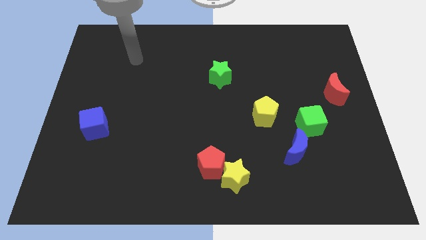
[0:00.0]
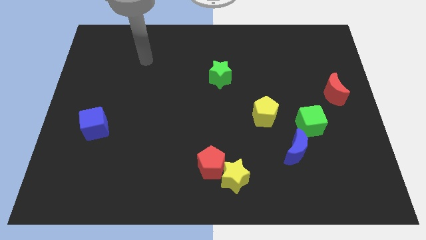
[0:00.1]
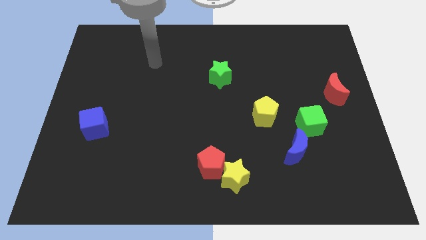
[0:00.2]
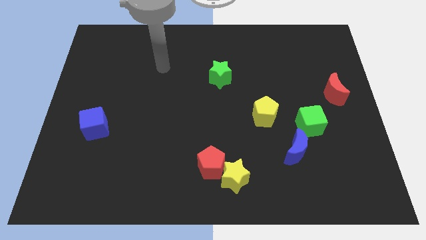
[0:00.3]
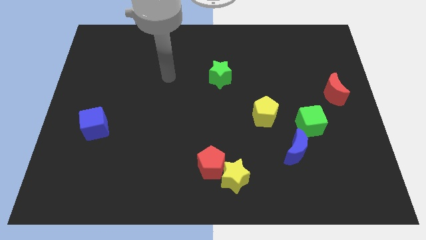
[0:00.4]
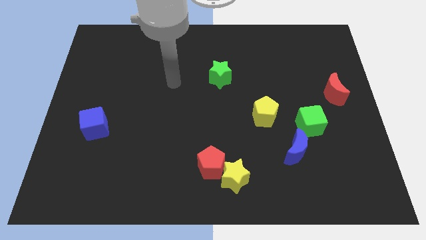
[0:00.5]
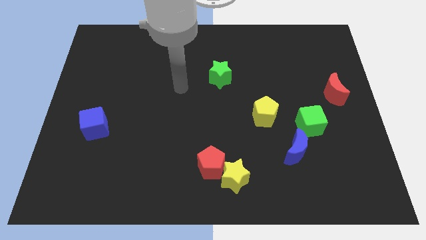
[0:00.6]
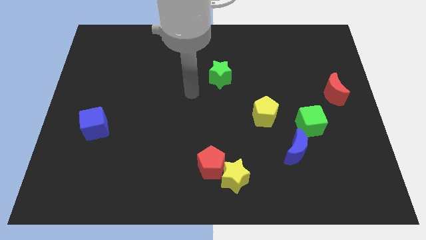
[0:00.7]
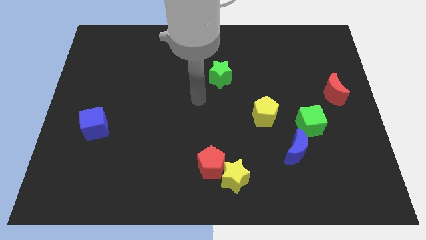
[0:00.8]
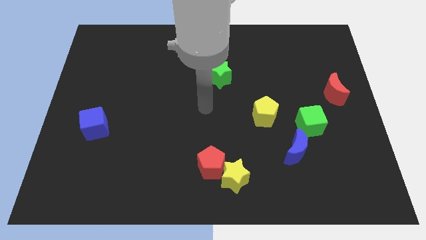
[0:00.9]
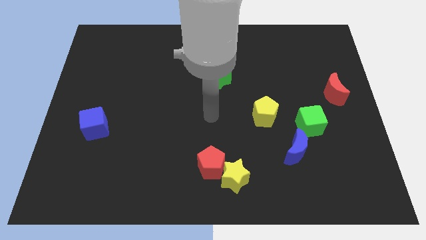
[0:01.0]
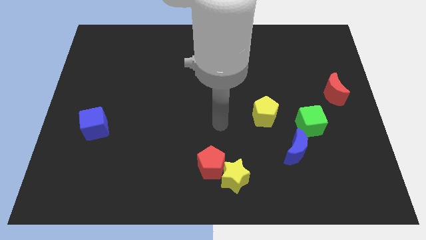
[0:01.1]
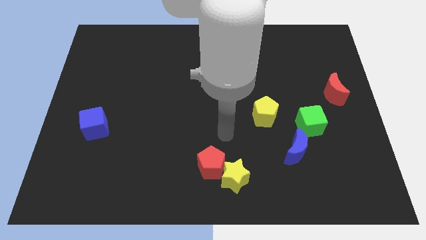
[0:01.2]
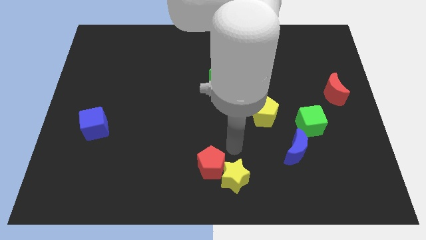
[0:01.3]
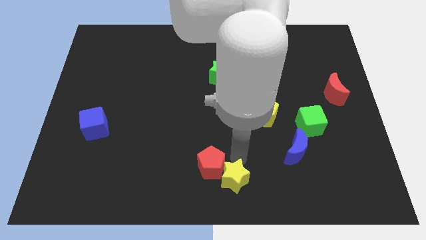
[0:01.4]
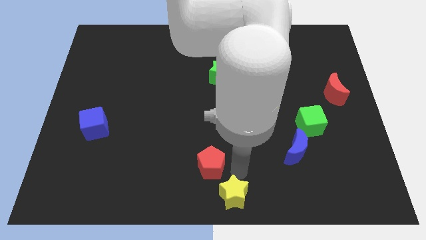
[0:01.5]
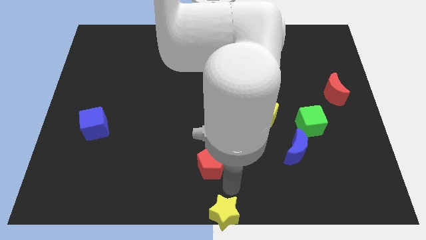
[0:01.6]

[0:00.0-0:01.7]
pull the red pentagon apart from the yellow star

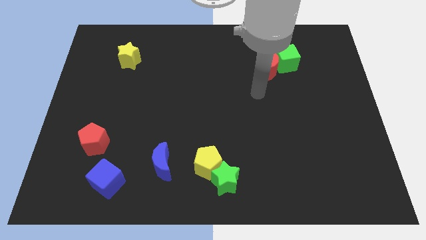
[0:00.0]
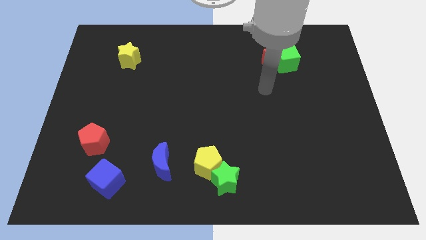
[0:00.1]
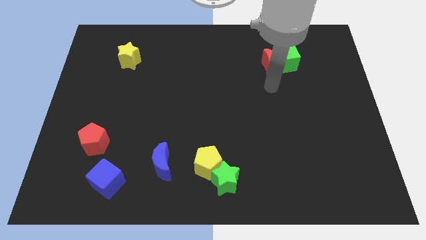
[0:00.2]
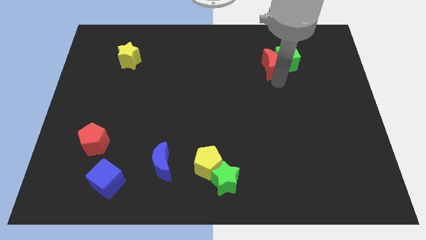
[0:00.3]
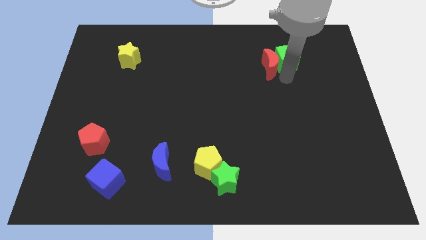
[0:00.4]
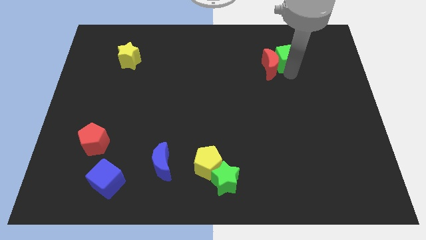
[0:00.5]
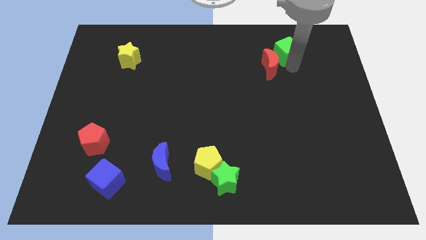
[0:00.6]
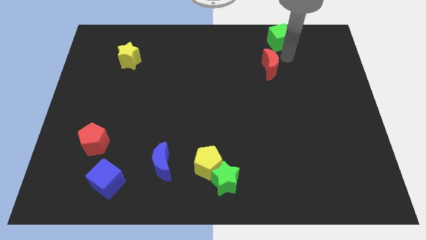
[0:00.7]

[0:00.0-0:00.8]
move the red moon away from the green cube

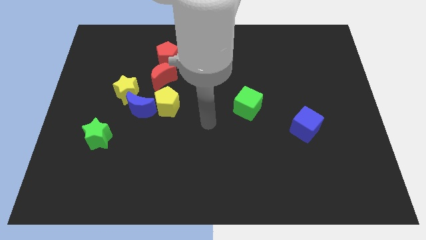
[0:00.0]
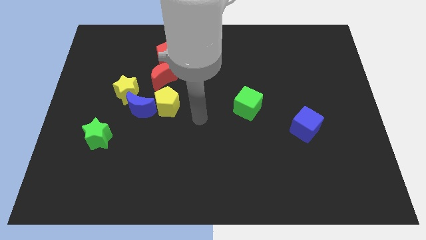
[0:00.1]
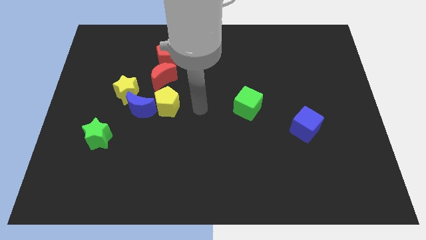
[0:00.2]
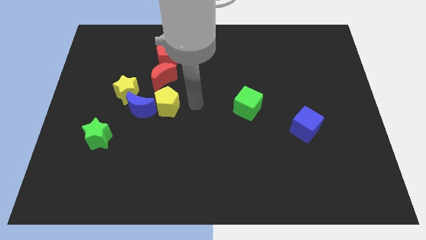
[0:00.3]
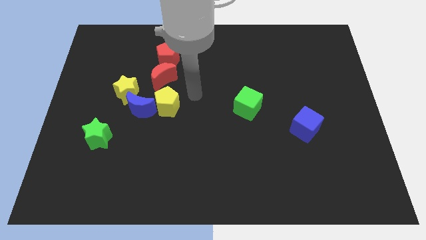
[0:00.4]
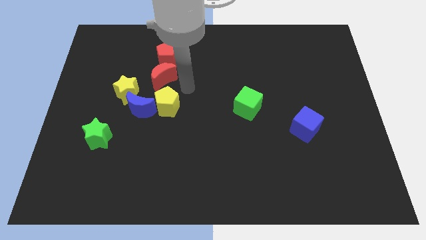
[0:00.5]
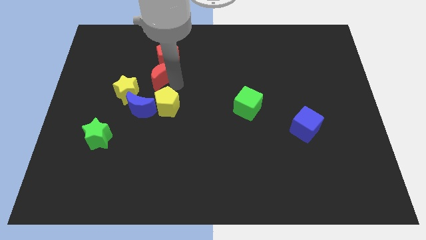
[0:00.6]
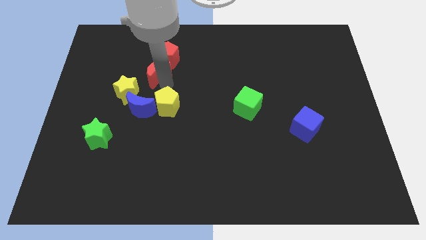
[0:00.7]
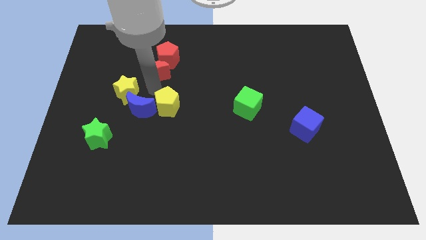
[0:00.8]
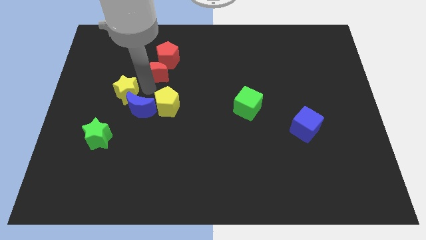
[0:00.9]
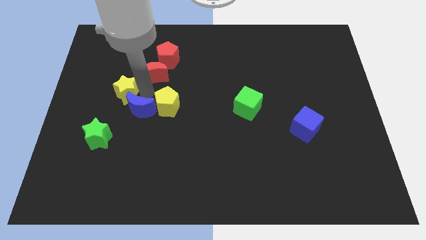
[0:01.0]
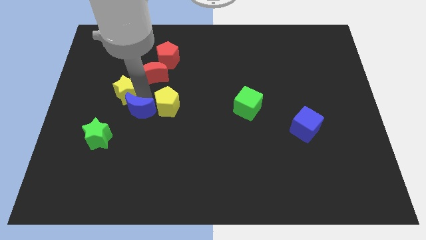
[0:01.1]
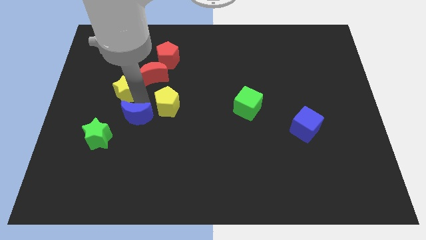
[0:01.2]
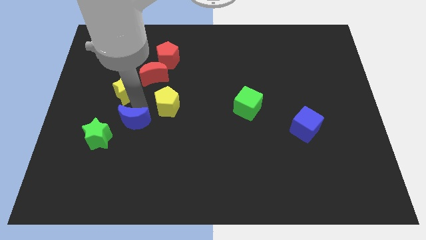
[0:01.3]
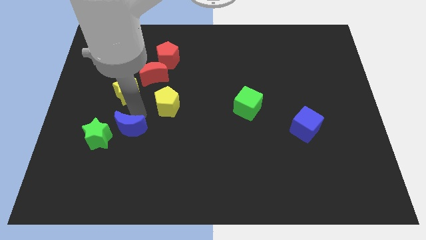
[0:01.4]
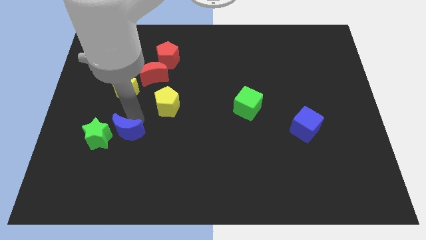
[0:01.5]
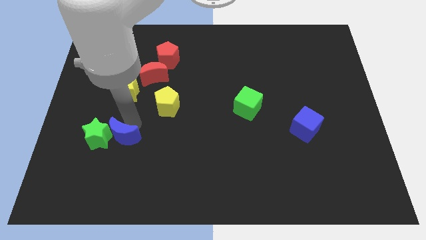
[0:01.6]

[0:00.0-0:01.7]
move the blue moon away from the yellow star and yellow pentagon

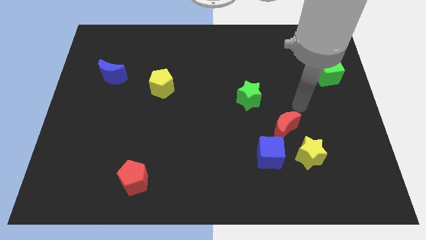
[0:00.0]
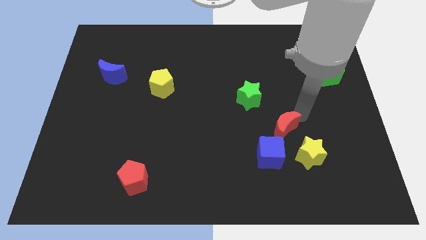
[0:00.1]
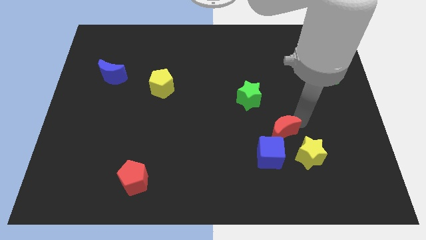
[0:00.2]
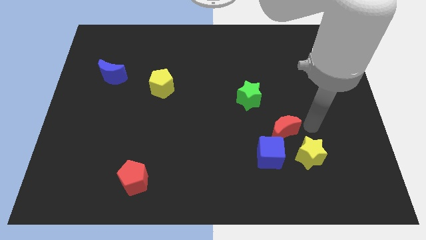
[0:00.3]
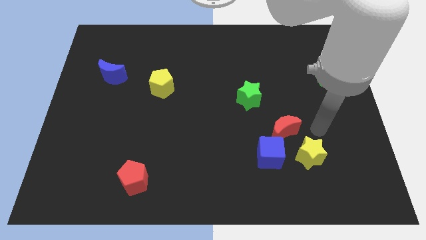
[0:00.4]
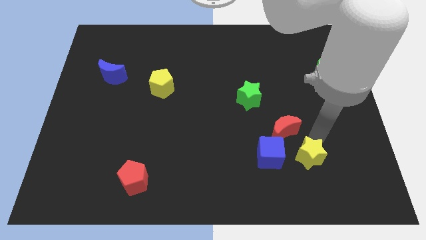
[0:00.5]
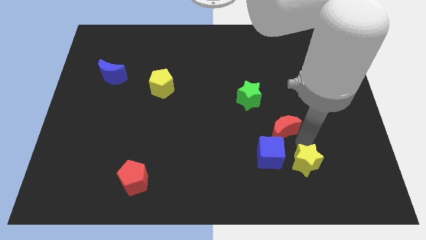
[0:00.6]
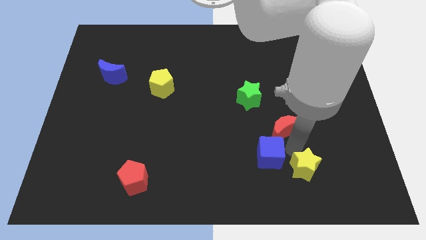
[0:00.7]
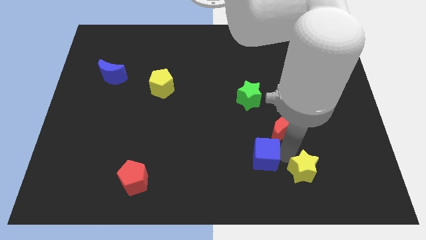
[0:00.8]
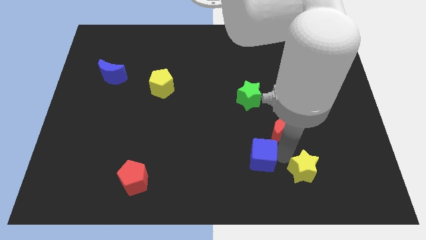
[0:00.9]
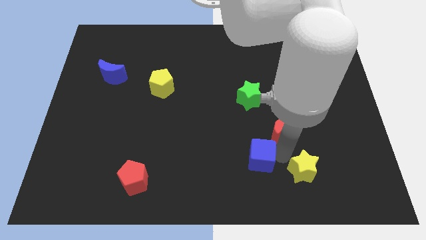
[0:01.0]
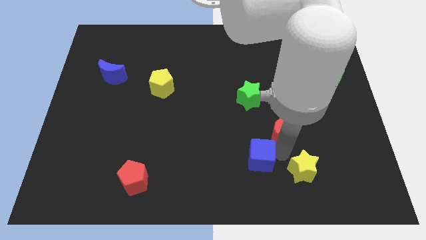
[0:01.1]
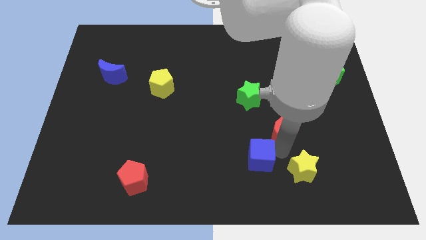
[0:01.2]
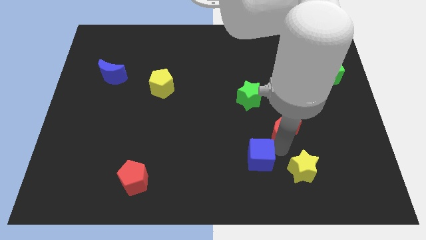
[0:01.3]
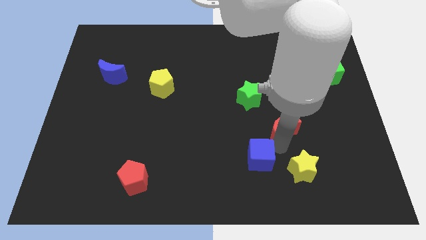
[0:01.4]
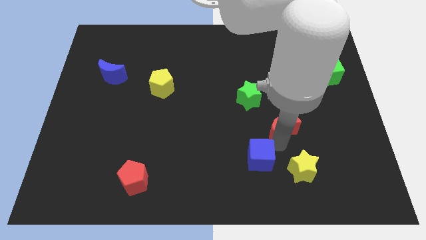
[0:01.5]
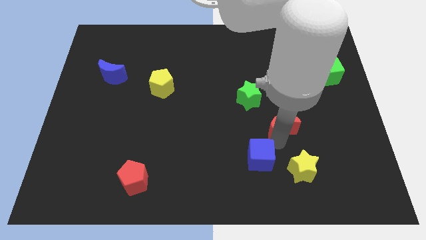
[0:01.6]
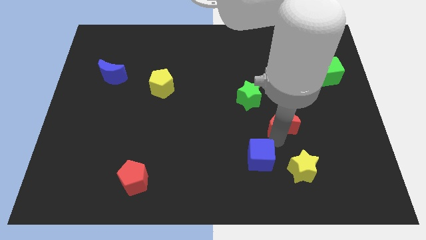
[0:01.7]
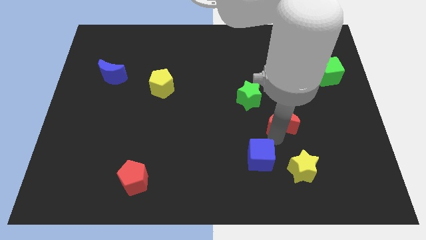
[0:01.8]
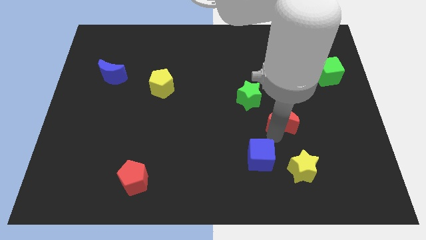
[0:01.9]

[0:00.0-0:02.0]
move the red moon away from the blue cube and yellow star

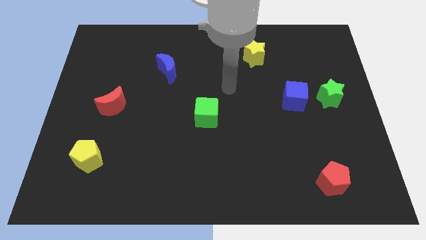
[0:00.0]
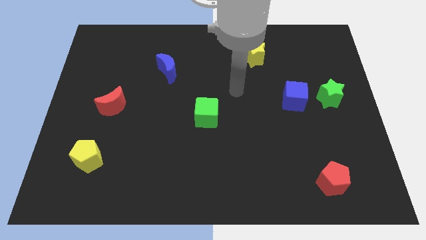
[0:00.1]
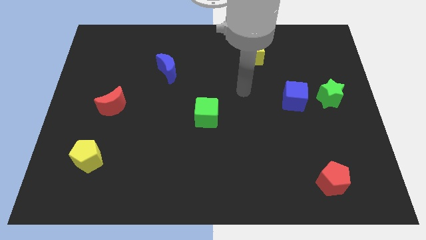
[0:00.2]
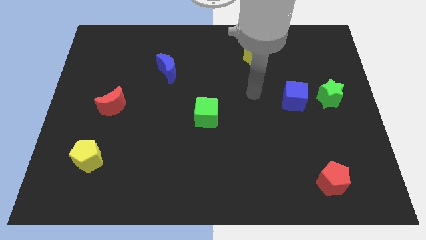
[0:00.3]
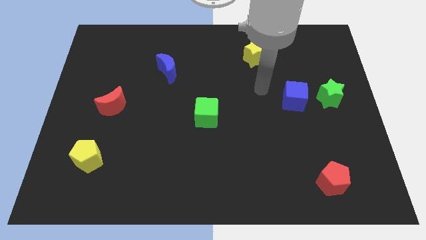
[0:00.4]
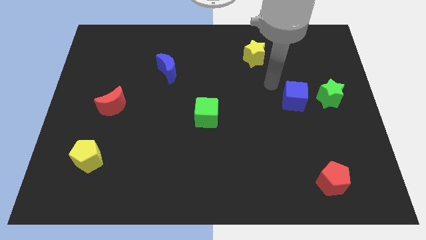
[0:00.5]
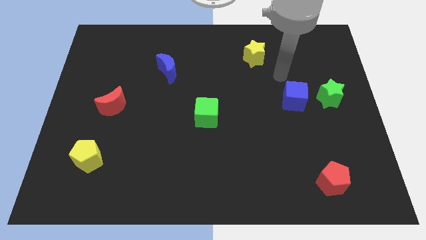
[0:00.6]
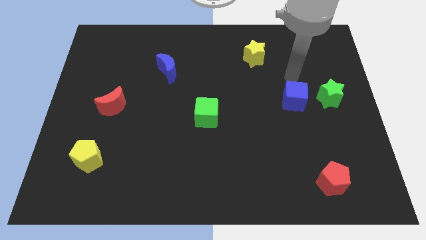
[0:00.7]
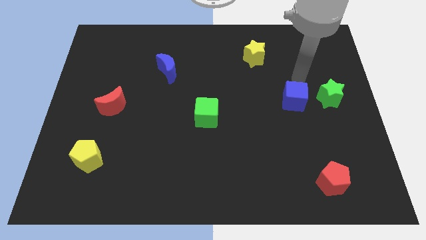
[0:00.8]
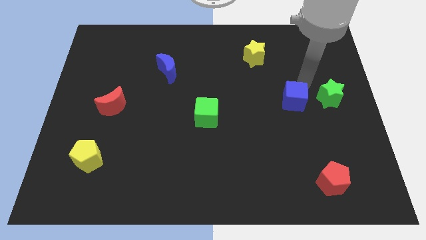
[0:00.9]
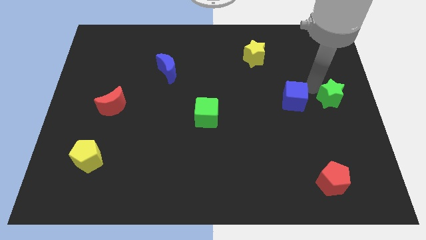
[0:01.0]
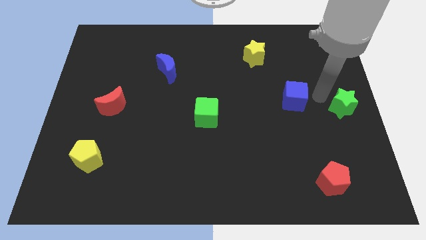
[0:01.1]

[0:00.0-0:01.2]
pull the blue cube apart from the green star

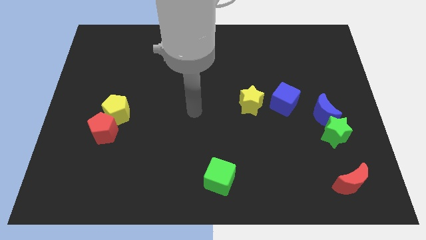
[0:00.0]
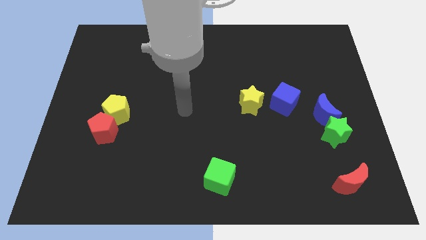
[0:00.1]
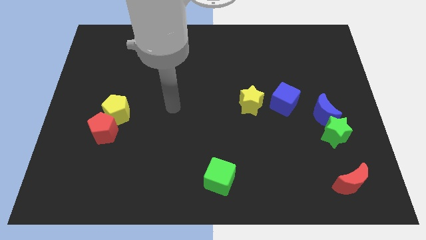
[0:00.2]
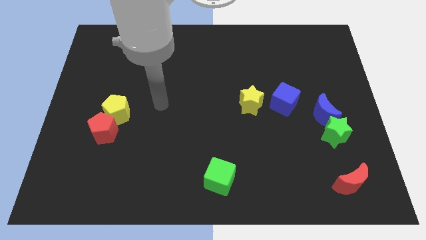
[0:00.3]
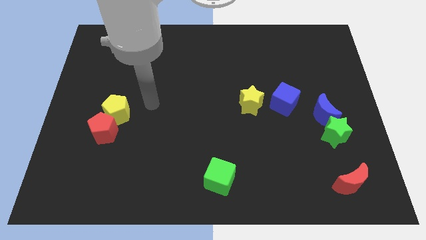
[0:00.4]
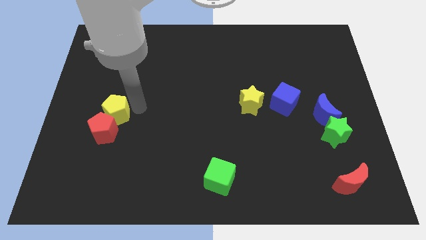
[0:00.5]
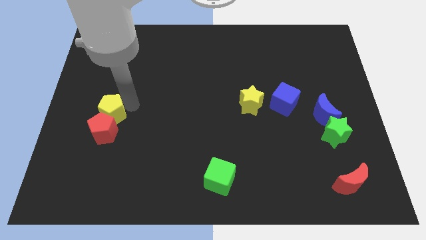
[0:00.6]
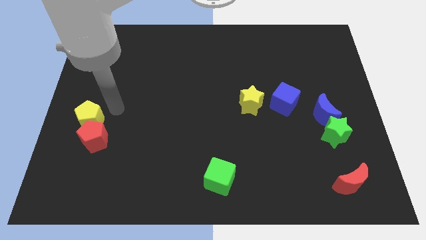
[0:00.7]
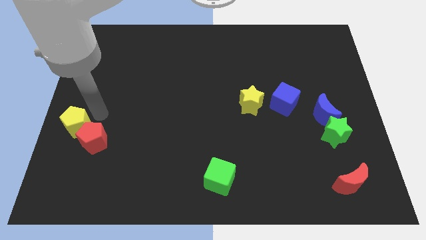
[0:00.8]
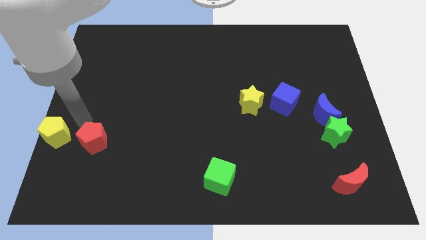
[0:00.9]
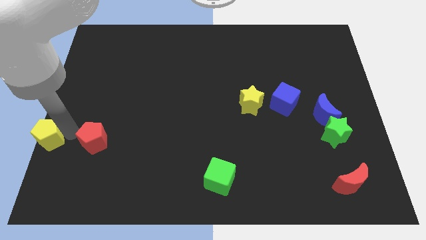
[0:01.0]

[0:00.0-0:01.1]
pull the red pentagon apart from the yellow pentagon

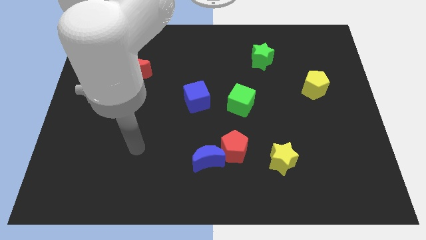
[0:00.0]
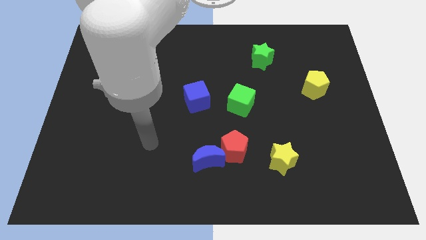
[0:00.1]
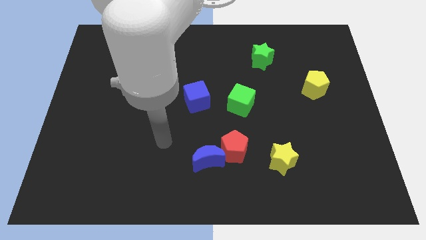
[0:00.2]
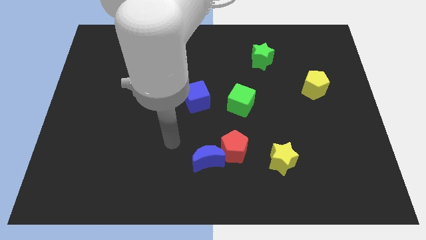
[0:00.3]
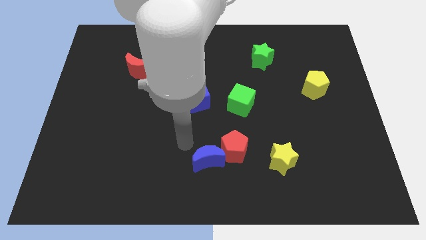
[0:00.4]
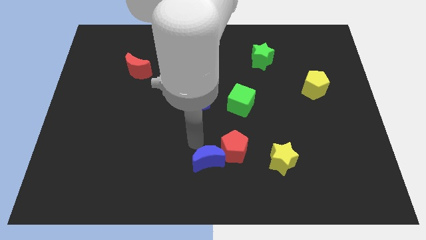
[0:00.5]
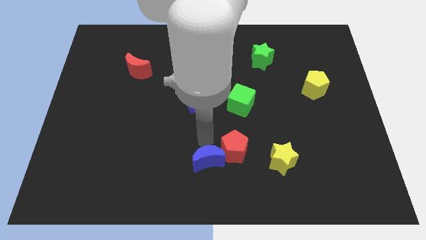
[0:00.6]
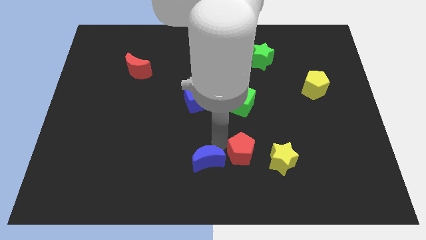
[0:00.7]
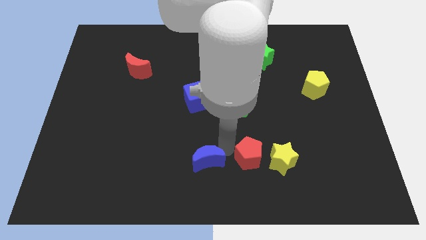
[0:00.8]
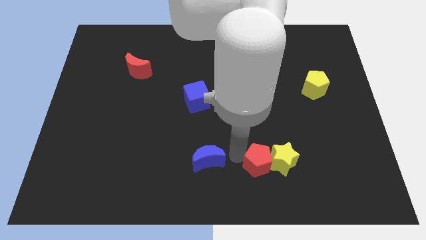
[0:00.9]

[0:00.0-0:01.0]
move the blue moon away from the red pentagon
